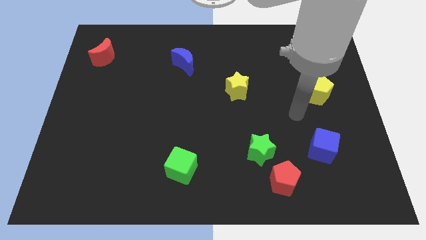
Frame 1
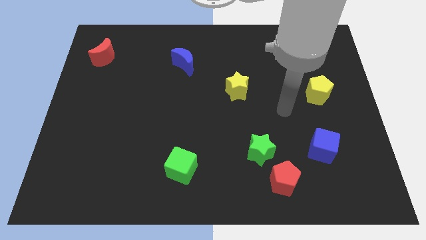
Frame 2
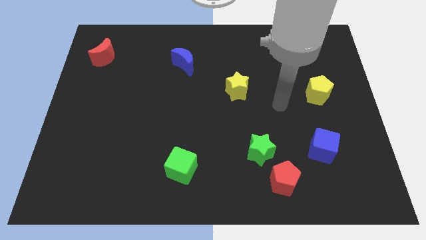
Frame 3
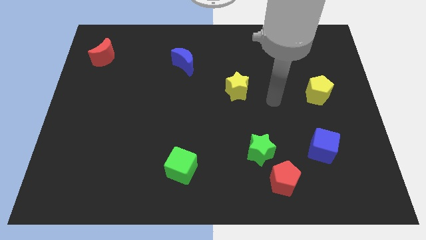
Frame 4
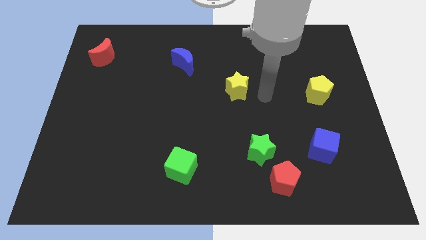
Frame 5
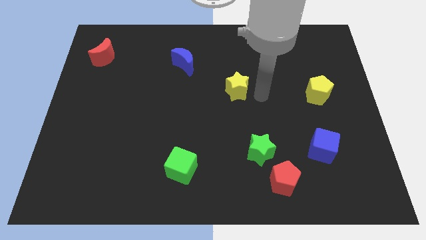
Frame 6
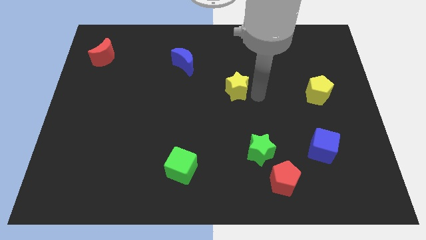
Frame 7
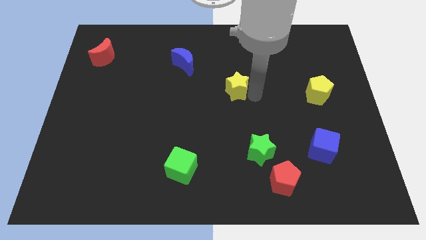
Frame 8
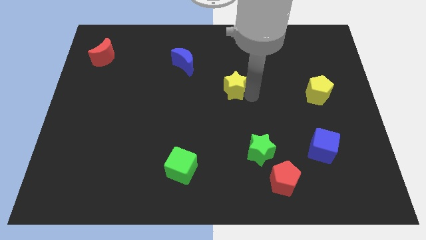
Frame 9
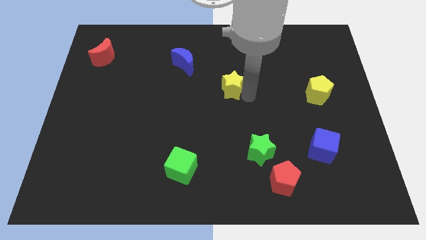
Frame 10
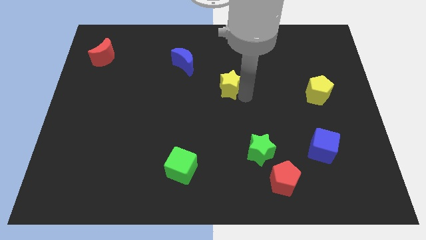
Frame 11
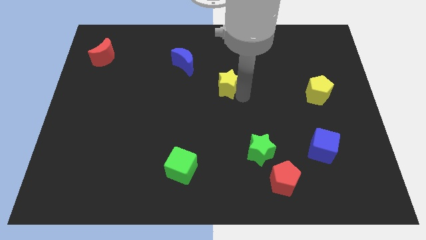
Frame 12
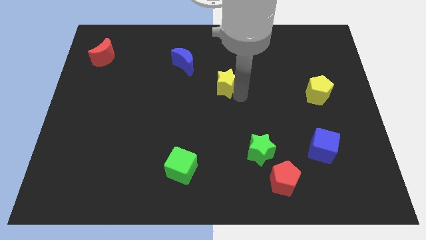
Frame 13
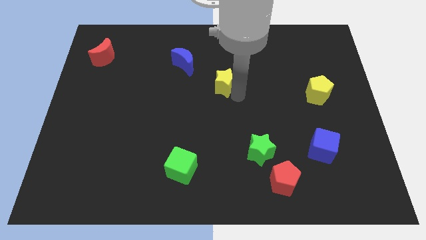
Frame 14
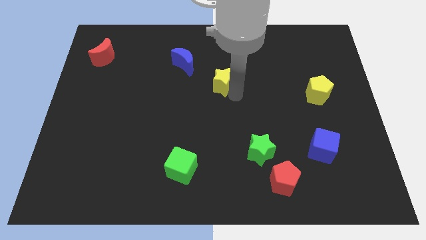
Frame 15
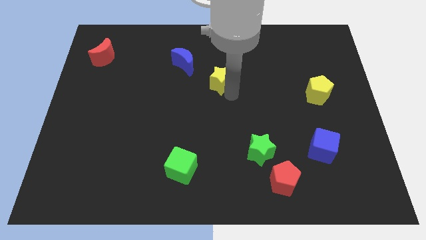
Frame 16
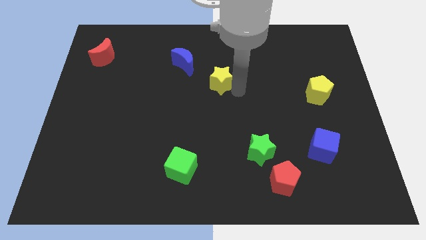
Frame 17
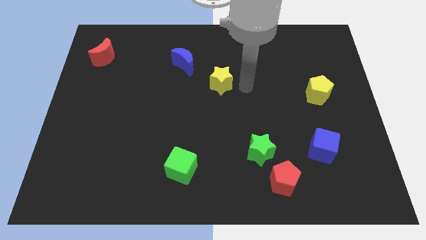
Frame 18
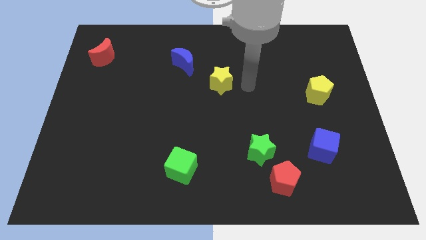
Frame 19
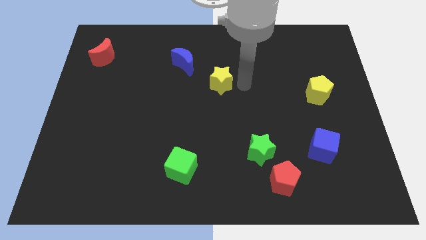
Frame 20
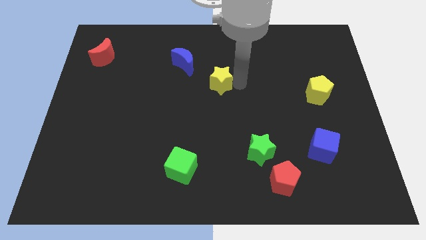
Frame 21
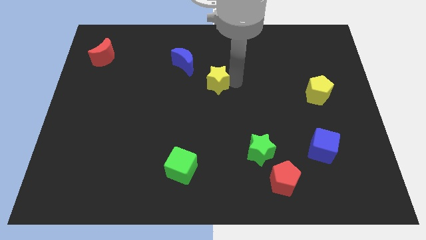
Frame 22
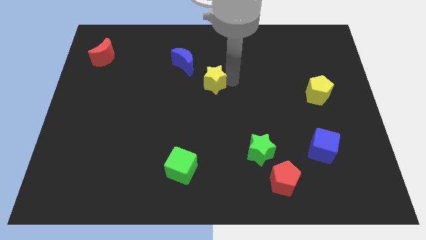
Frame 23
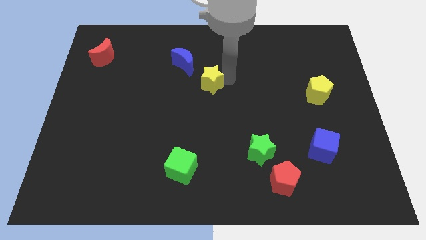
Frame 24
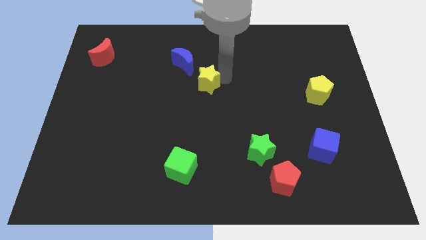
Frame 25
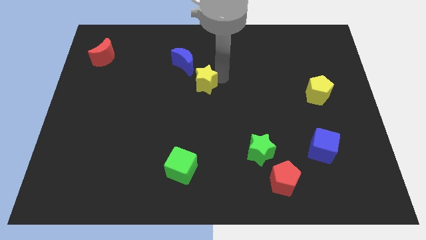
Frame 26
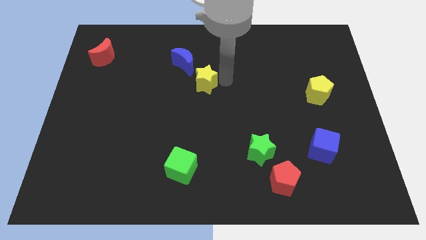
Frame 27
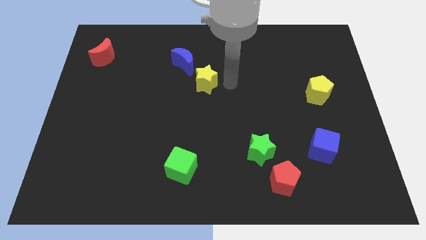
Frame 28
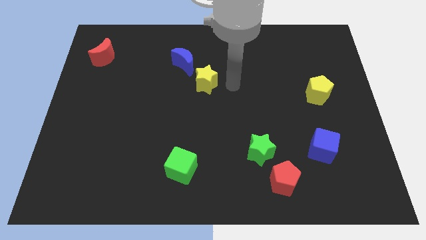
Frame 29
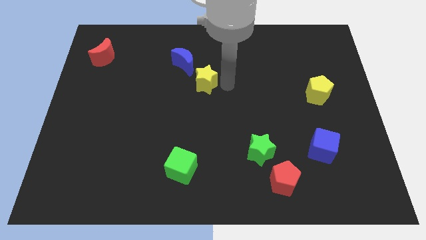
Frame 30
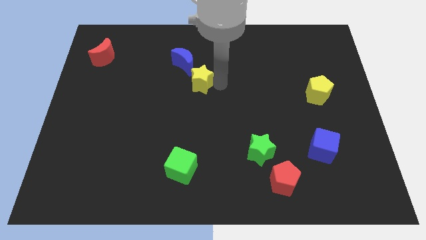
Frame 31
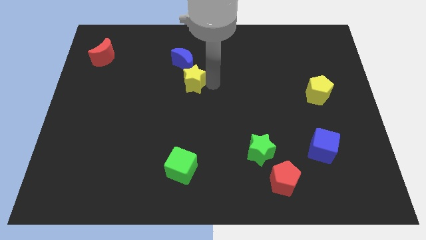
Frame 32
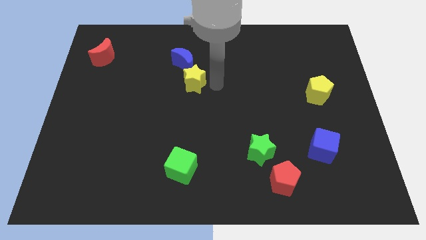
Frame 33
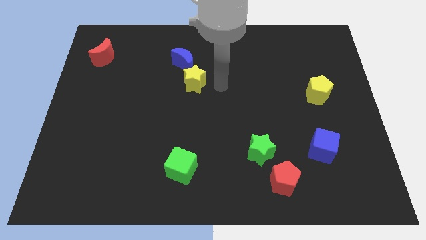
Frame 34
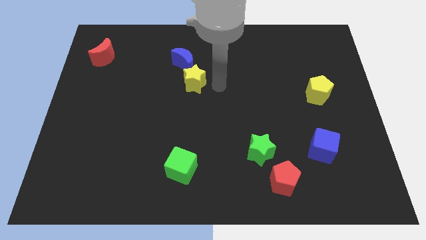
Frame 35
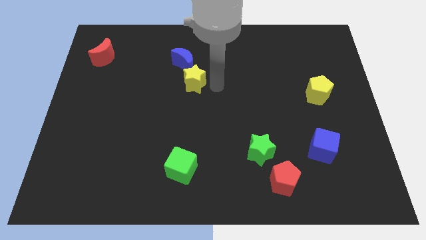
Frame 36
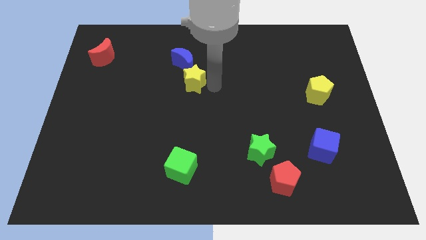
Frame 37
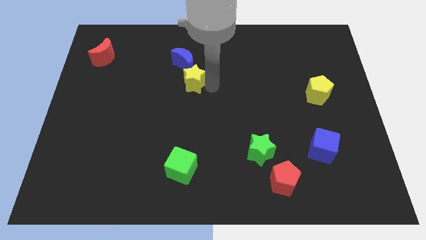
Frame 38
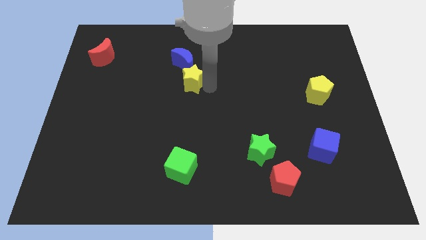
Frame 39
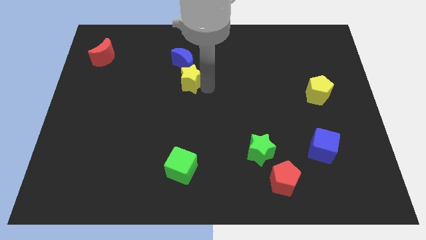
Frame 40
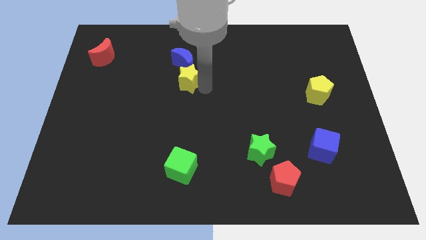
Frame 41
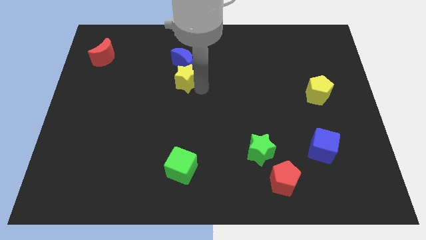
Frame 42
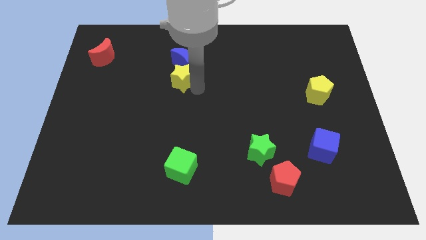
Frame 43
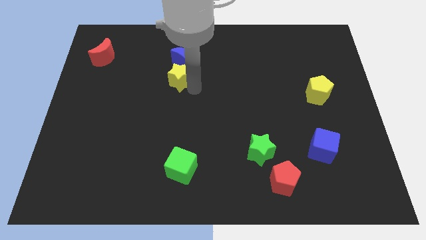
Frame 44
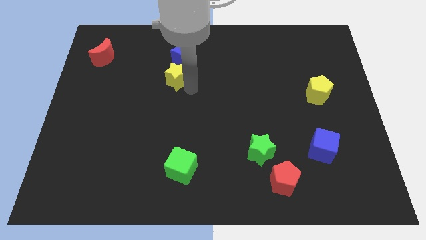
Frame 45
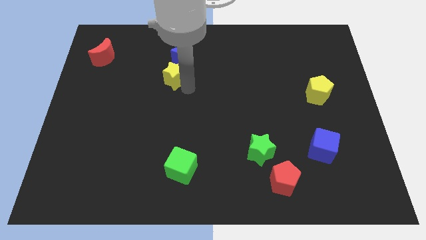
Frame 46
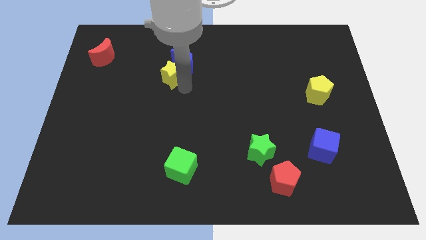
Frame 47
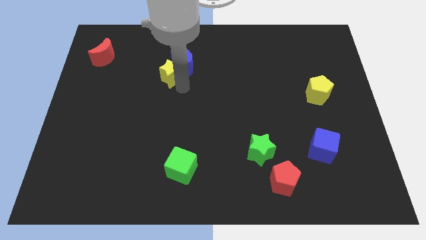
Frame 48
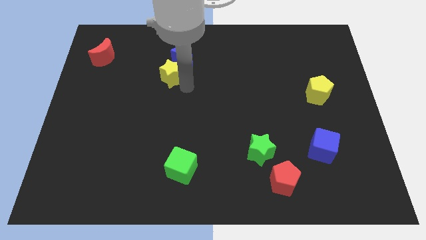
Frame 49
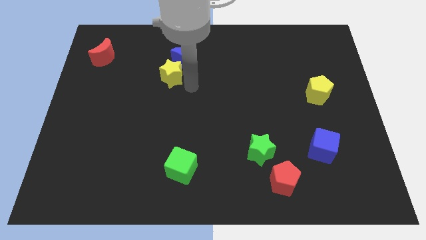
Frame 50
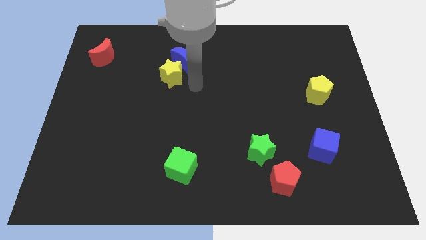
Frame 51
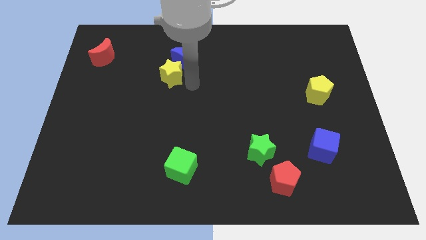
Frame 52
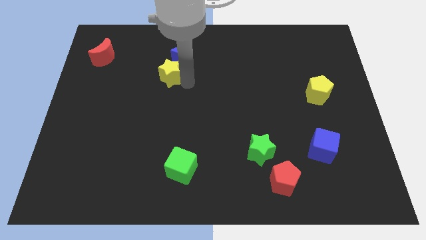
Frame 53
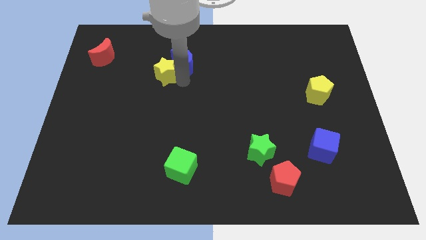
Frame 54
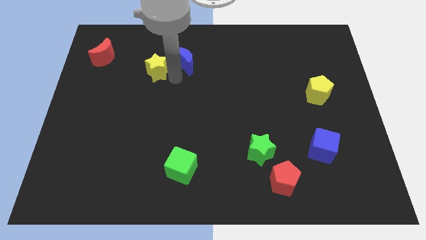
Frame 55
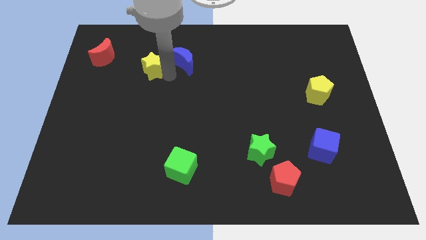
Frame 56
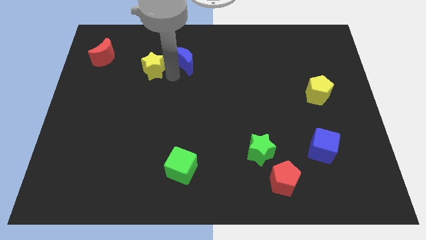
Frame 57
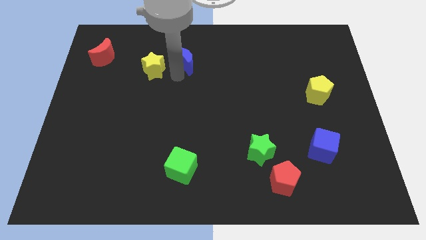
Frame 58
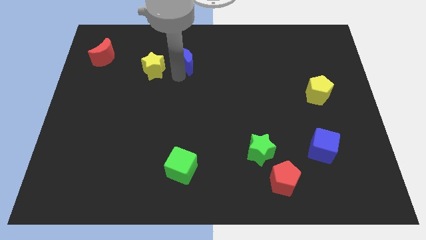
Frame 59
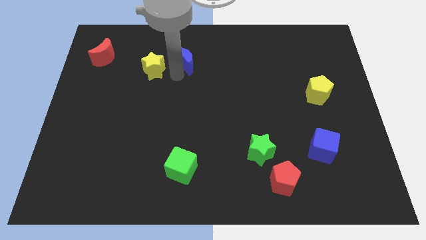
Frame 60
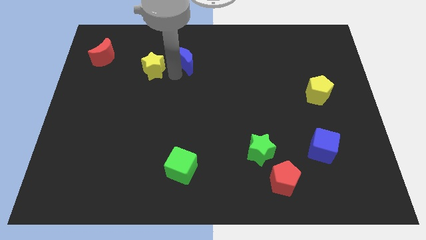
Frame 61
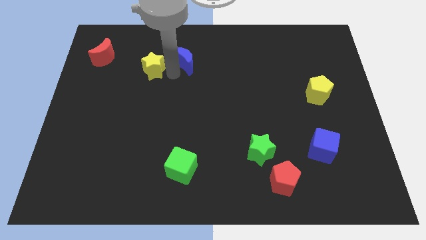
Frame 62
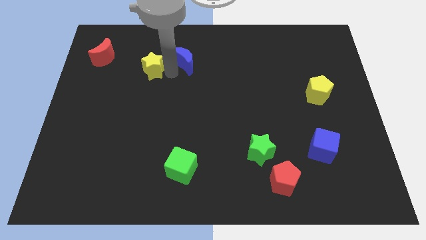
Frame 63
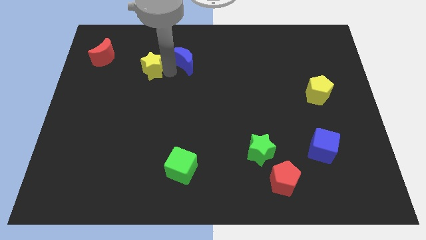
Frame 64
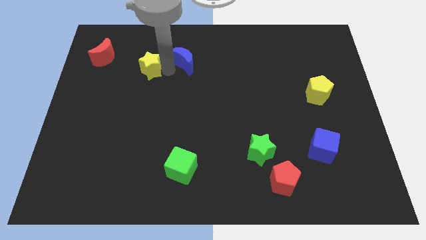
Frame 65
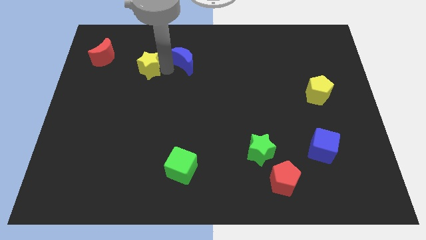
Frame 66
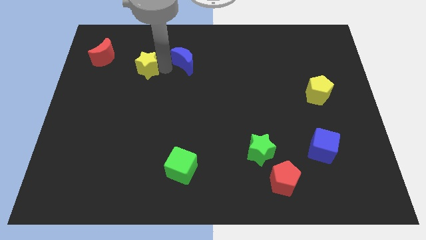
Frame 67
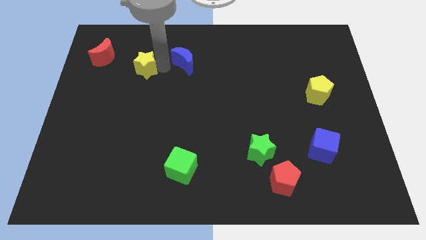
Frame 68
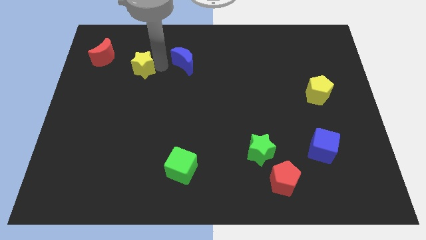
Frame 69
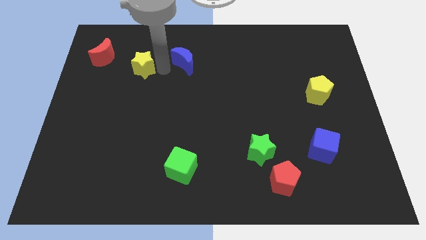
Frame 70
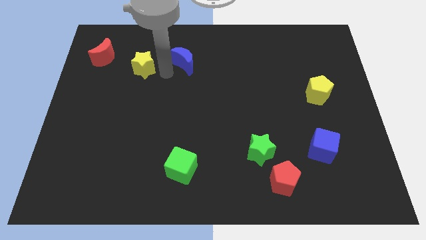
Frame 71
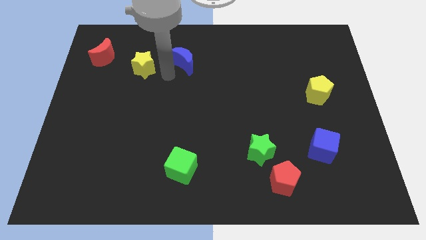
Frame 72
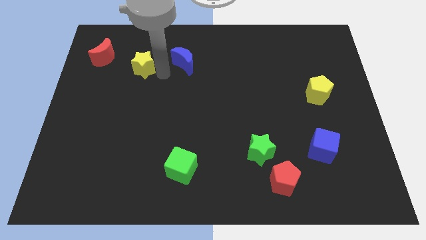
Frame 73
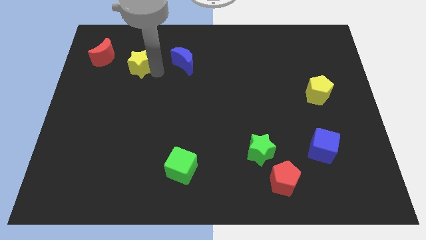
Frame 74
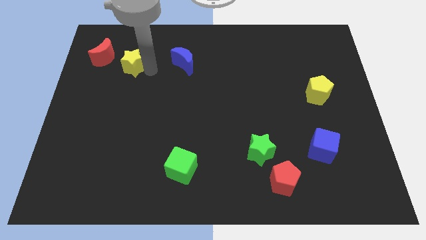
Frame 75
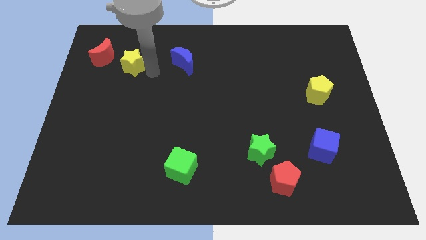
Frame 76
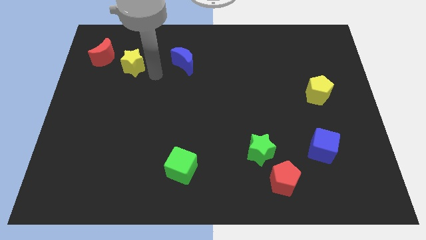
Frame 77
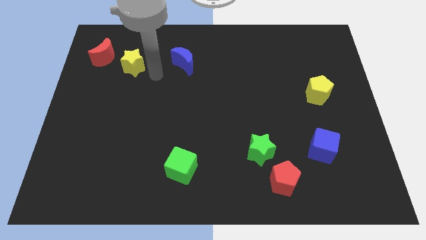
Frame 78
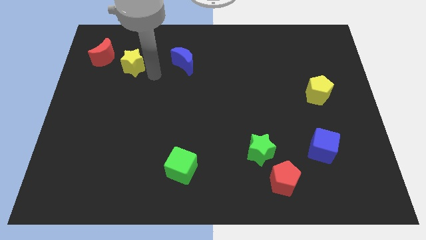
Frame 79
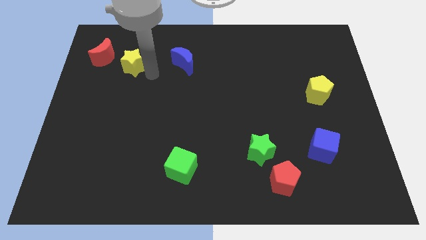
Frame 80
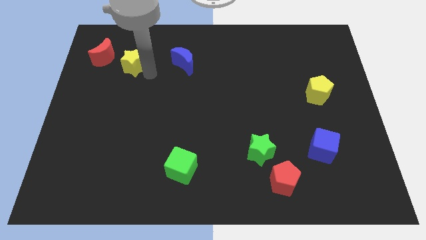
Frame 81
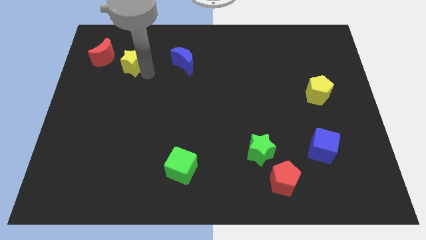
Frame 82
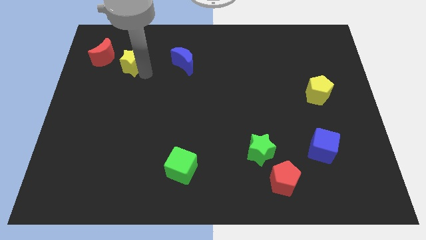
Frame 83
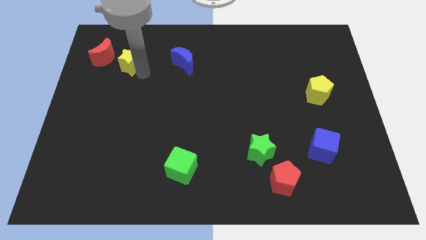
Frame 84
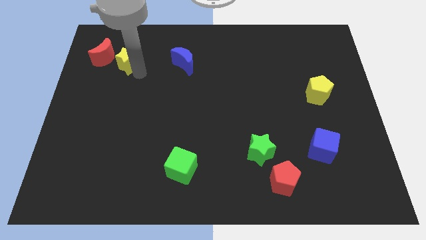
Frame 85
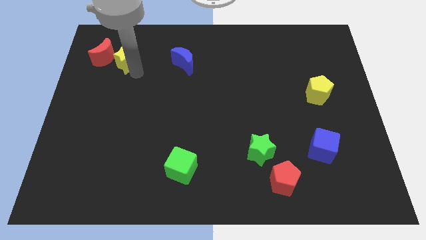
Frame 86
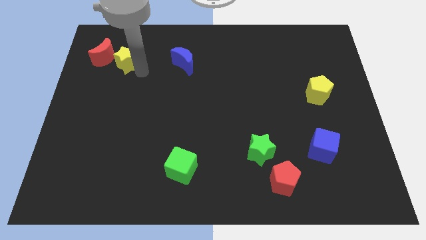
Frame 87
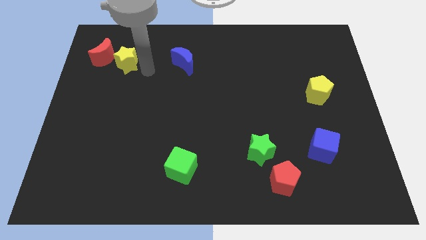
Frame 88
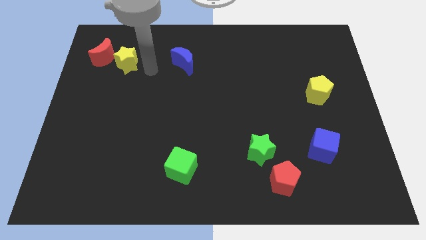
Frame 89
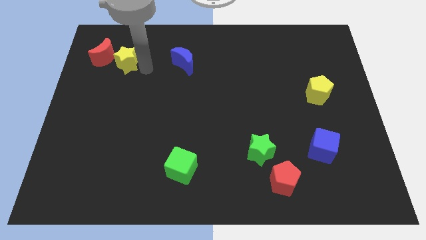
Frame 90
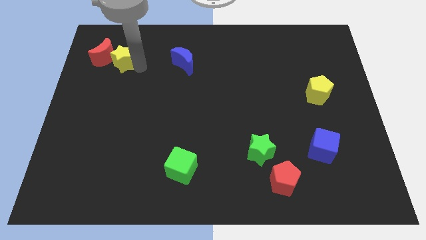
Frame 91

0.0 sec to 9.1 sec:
put the yellow star next to the red moon
